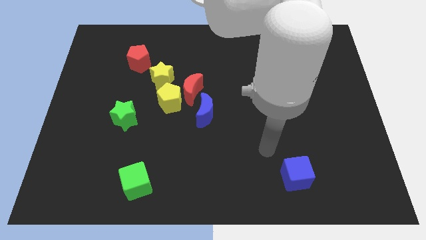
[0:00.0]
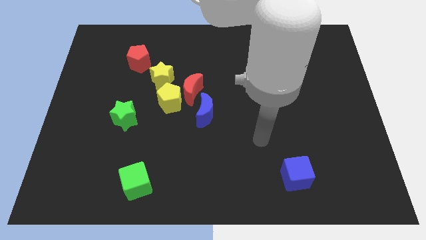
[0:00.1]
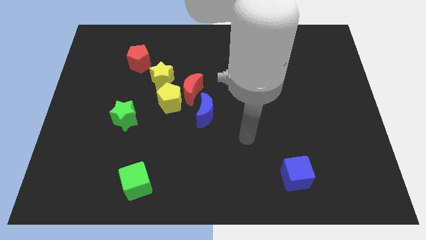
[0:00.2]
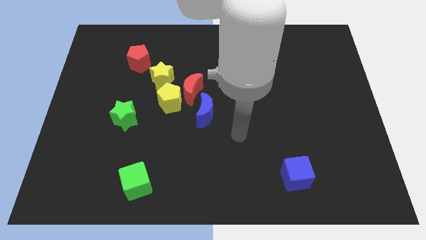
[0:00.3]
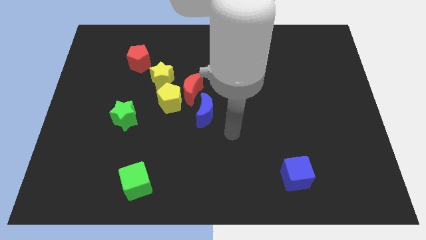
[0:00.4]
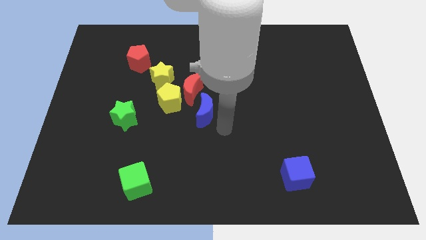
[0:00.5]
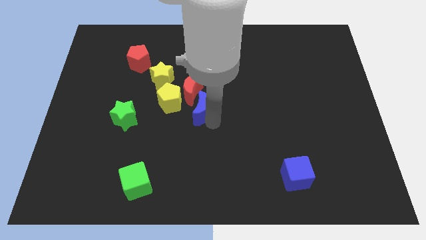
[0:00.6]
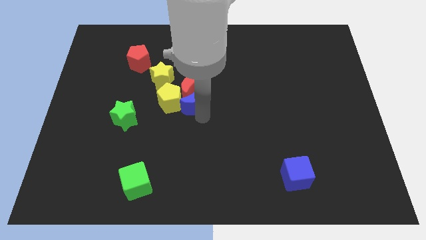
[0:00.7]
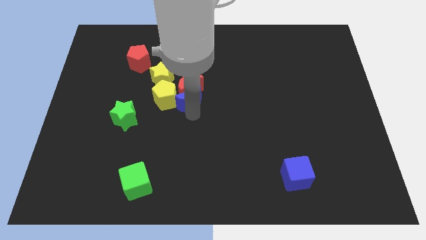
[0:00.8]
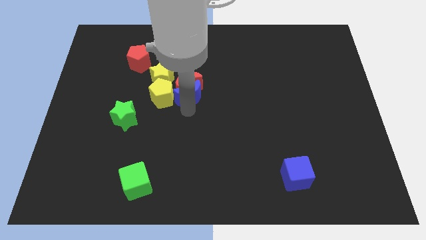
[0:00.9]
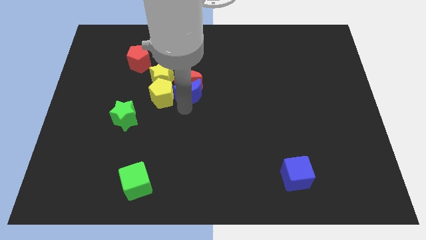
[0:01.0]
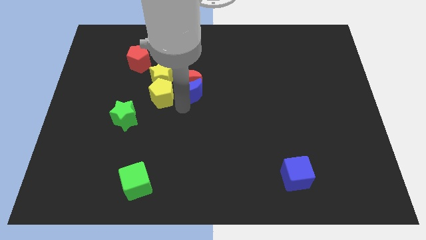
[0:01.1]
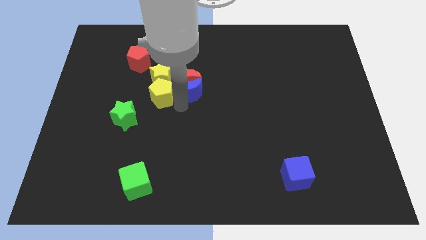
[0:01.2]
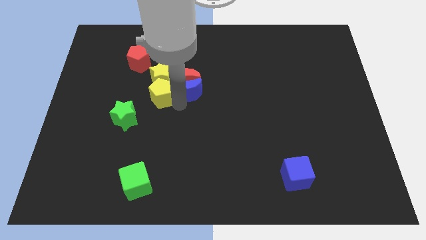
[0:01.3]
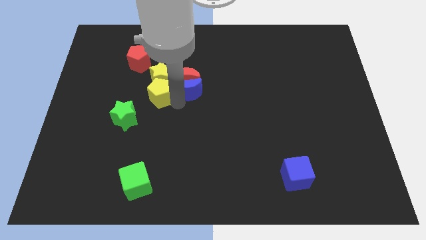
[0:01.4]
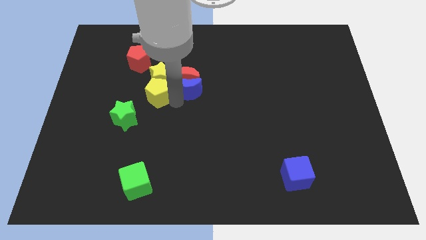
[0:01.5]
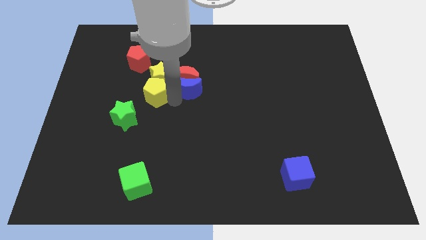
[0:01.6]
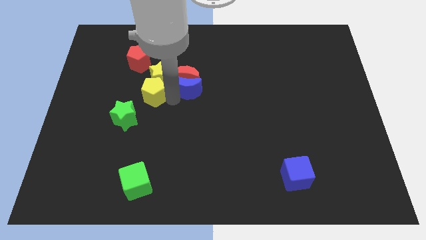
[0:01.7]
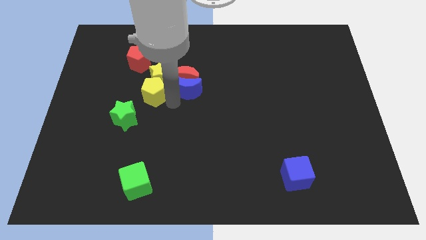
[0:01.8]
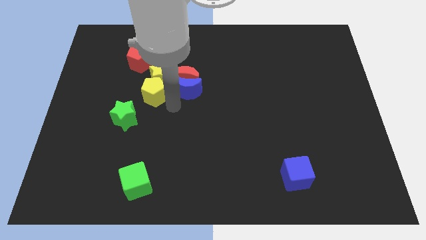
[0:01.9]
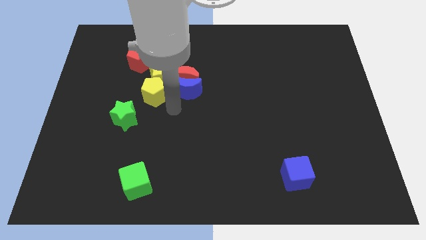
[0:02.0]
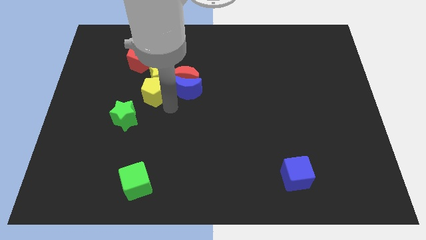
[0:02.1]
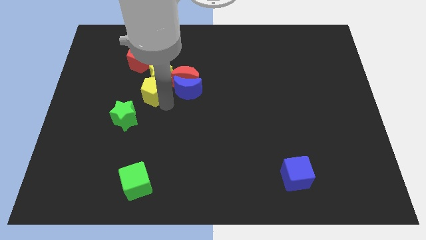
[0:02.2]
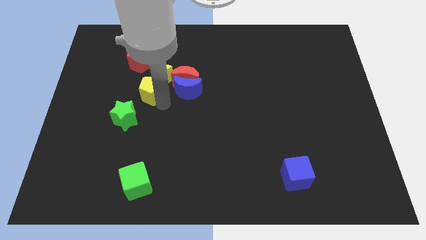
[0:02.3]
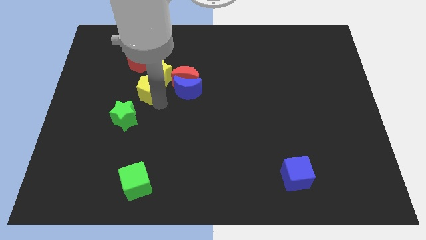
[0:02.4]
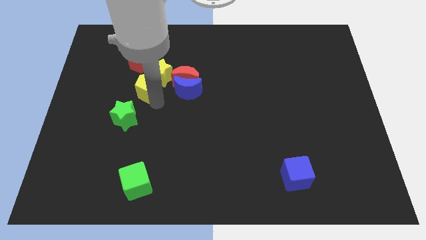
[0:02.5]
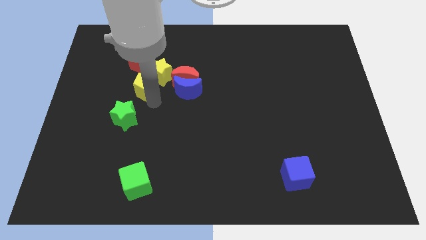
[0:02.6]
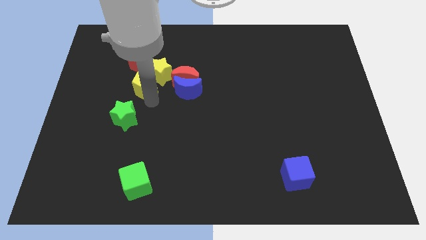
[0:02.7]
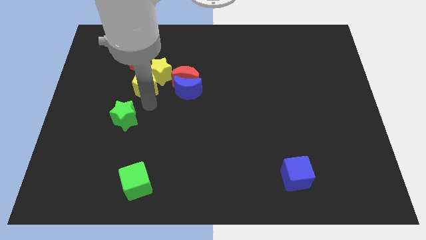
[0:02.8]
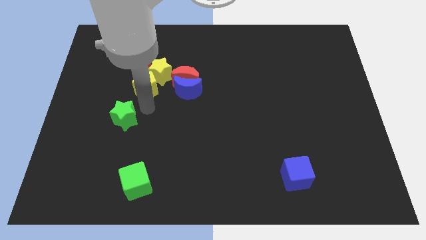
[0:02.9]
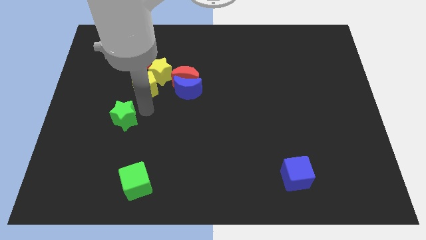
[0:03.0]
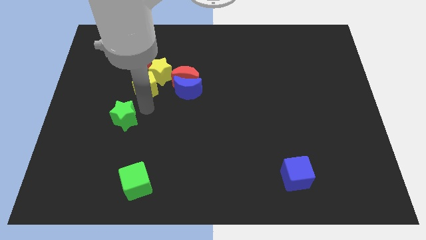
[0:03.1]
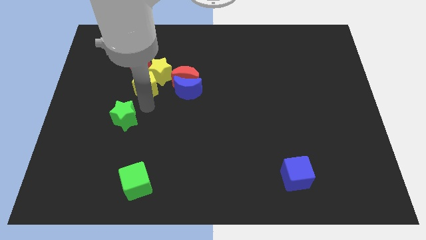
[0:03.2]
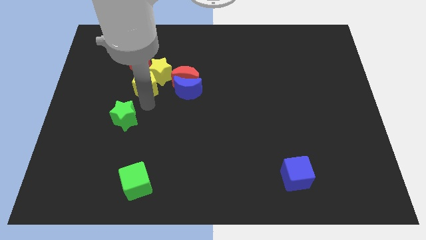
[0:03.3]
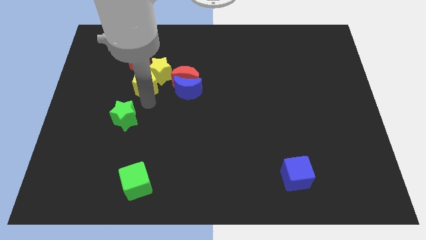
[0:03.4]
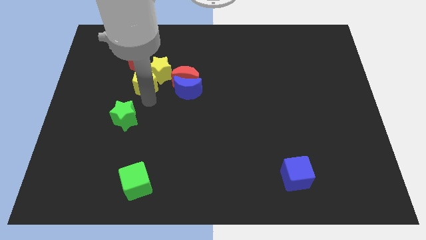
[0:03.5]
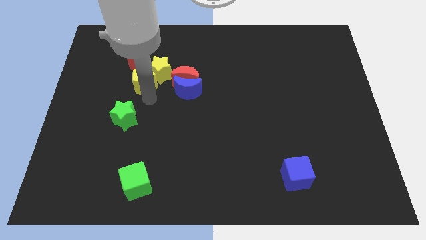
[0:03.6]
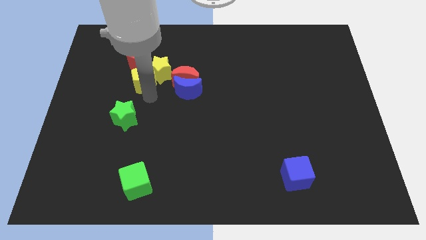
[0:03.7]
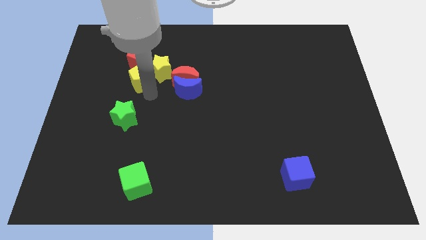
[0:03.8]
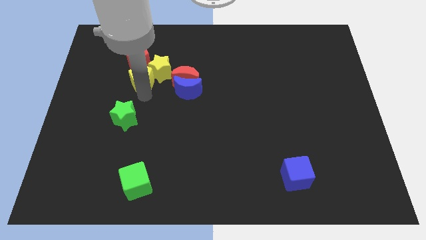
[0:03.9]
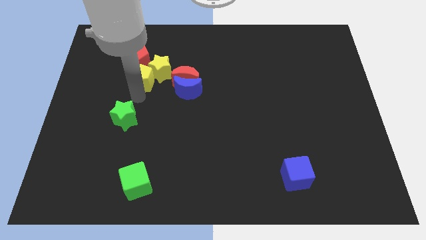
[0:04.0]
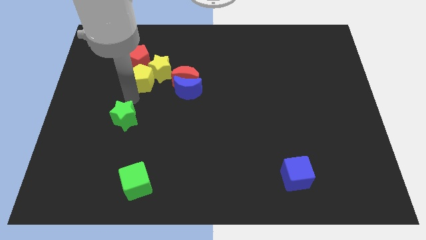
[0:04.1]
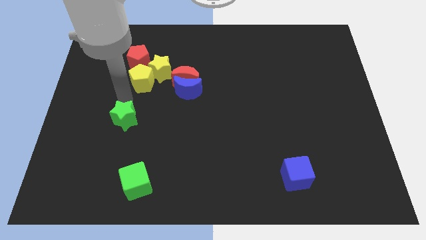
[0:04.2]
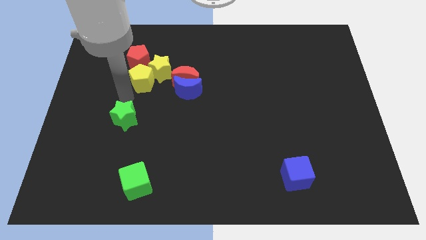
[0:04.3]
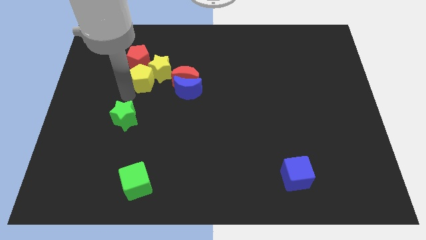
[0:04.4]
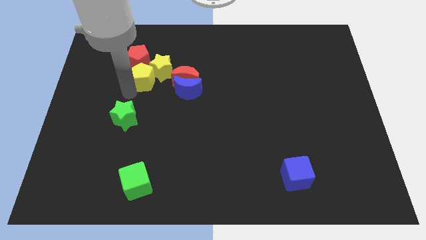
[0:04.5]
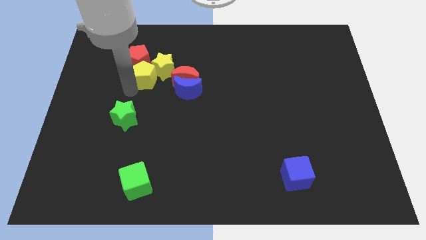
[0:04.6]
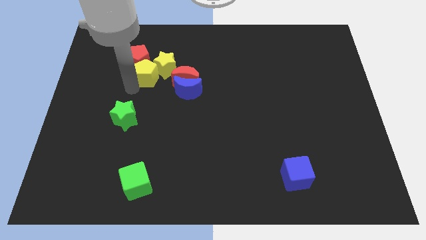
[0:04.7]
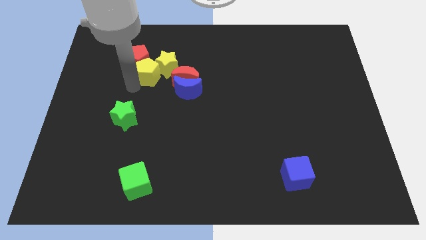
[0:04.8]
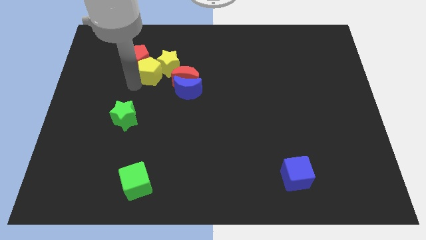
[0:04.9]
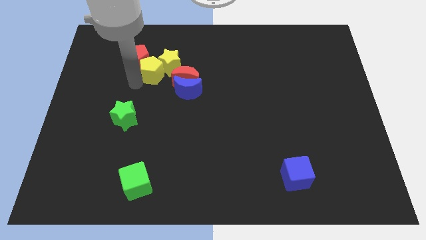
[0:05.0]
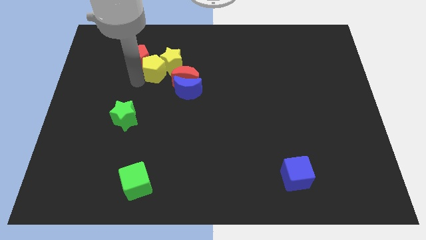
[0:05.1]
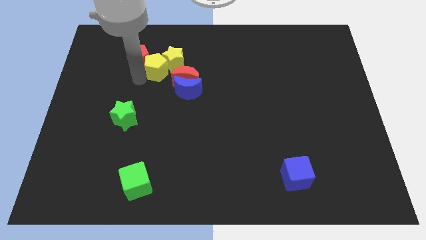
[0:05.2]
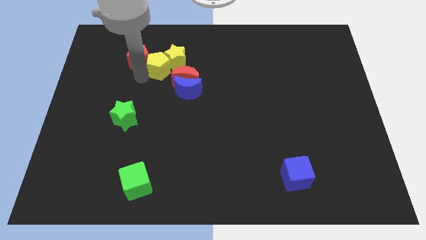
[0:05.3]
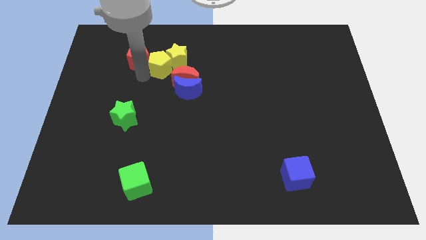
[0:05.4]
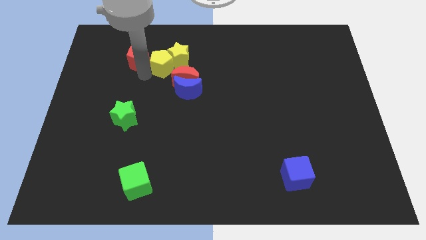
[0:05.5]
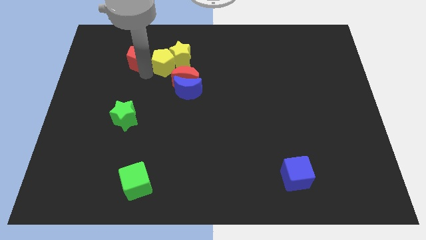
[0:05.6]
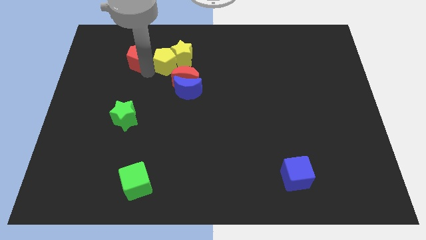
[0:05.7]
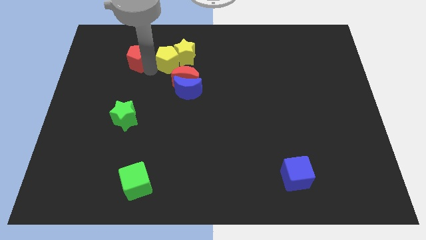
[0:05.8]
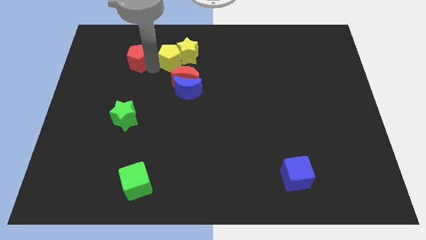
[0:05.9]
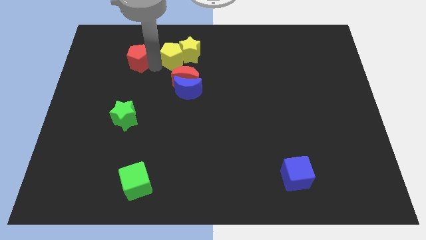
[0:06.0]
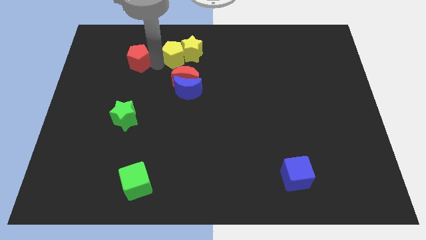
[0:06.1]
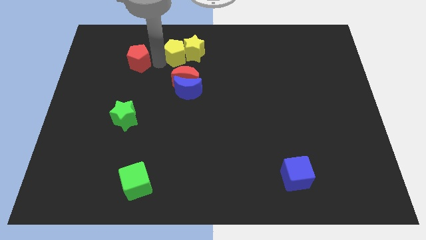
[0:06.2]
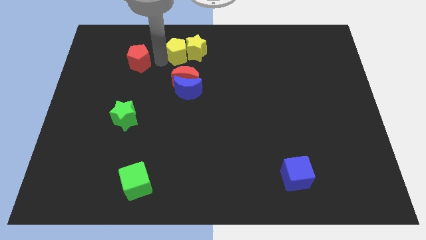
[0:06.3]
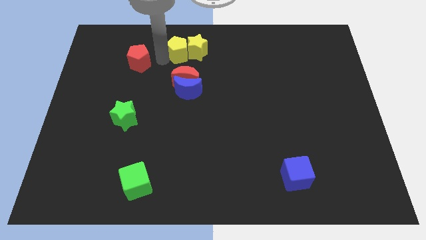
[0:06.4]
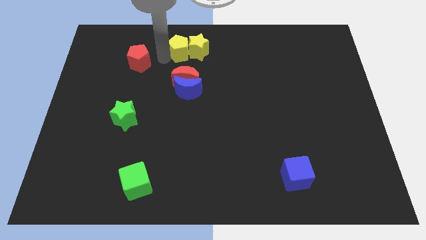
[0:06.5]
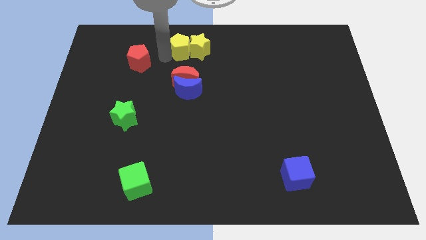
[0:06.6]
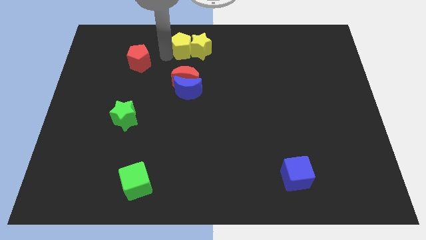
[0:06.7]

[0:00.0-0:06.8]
slide the yellow pentagon to the towards your base

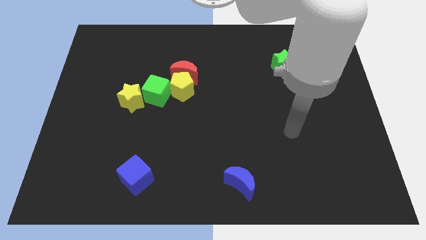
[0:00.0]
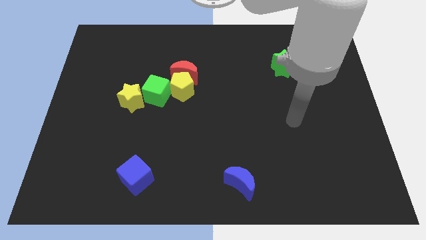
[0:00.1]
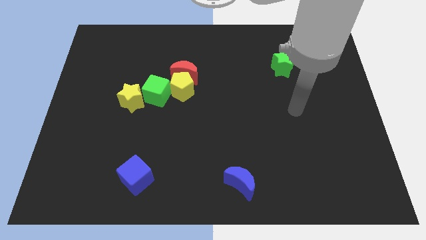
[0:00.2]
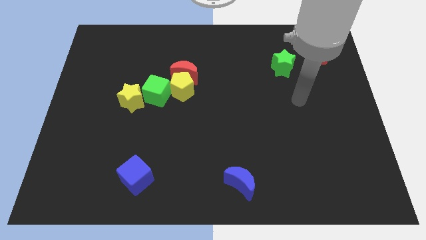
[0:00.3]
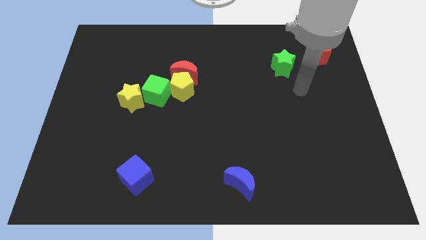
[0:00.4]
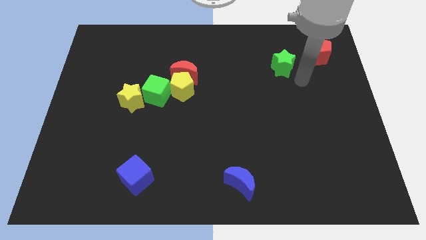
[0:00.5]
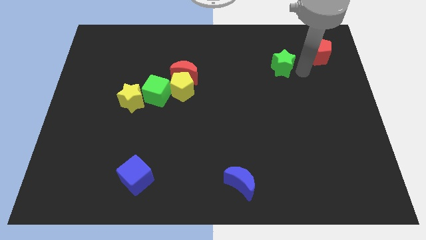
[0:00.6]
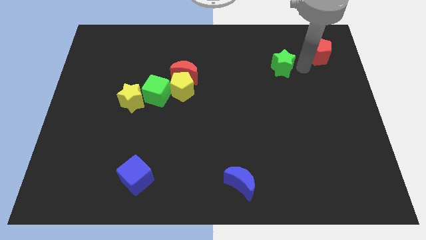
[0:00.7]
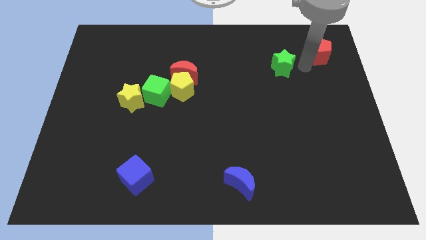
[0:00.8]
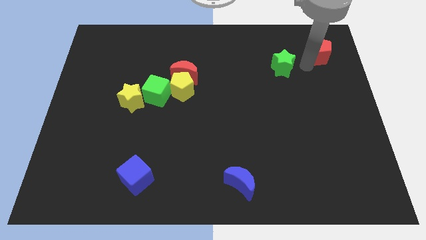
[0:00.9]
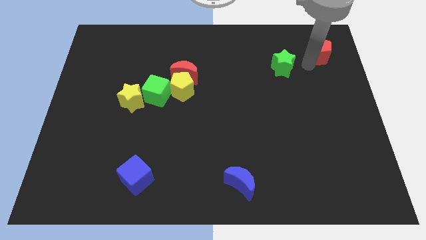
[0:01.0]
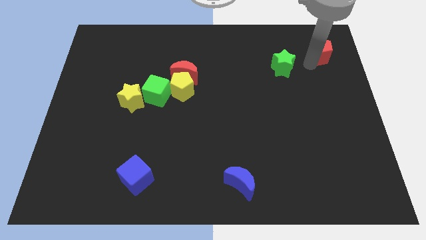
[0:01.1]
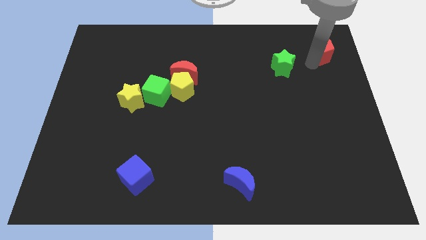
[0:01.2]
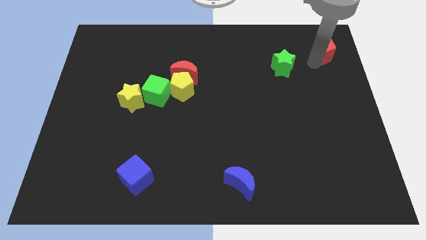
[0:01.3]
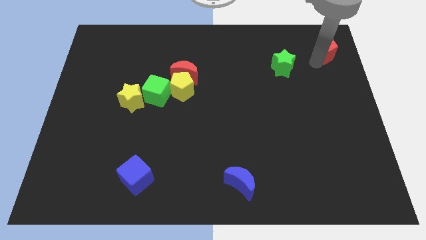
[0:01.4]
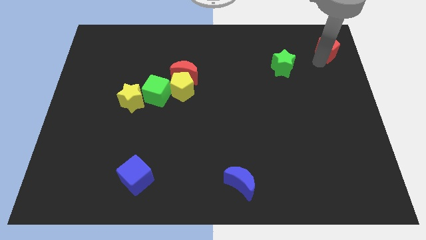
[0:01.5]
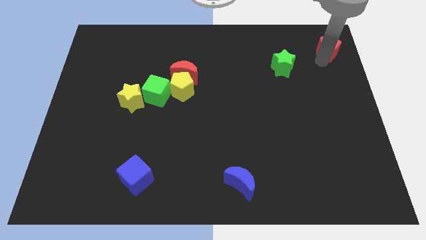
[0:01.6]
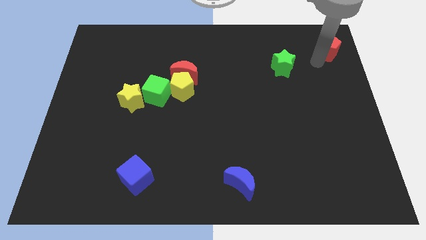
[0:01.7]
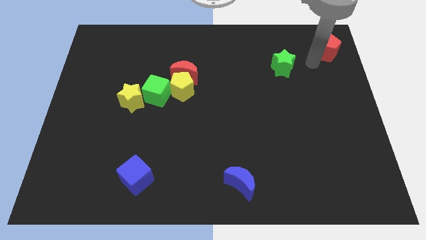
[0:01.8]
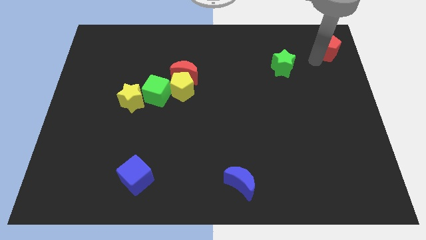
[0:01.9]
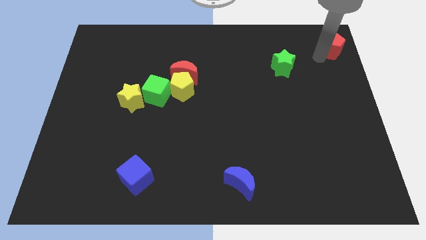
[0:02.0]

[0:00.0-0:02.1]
push the red pentagon to the top right
